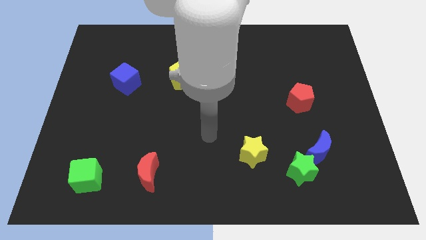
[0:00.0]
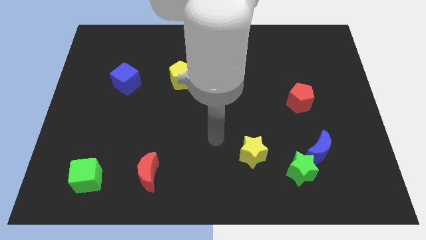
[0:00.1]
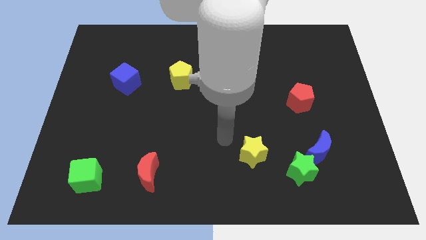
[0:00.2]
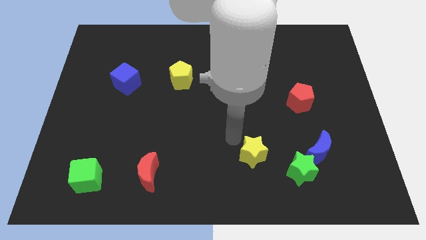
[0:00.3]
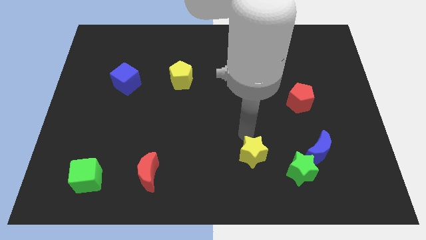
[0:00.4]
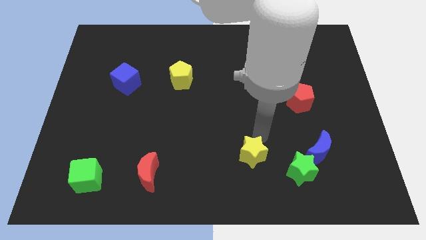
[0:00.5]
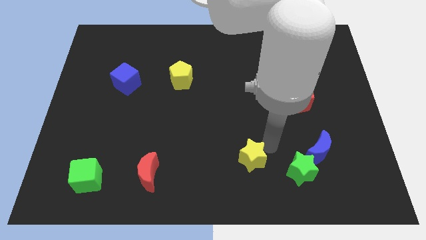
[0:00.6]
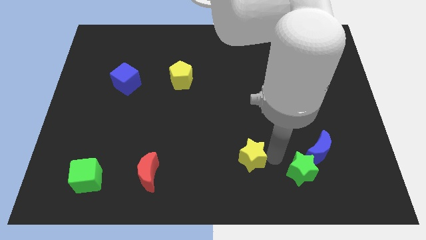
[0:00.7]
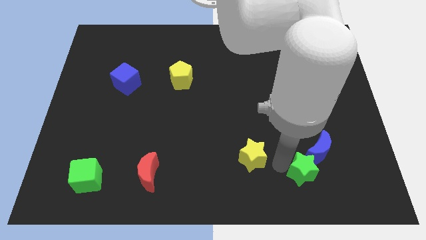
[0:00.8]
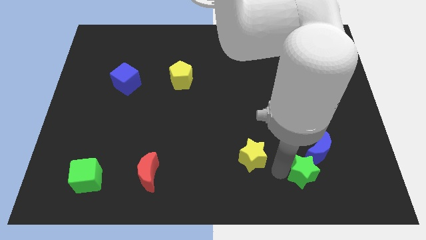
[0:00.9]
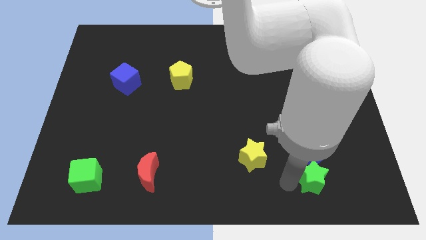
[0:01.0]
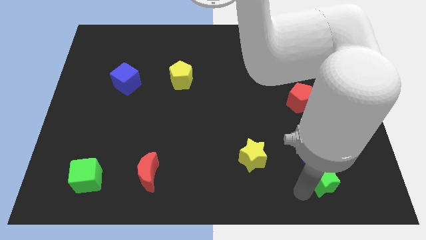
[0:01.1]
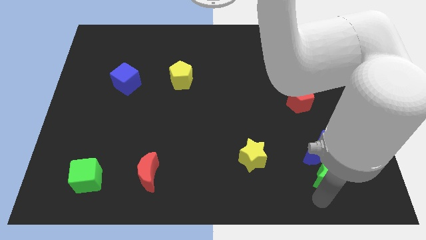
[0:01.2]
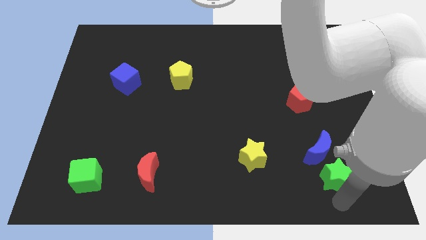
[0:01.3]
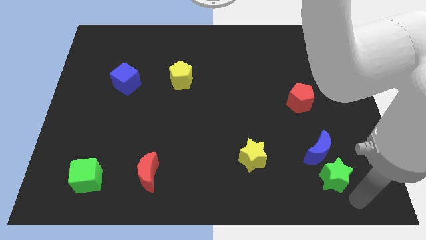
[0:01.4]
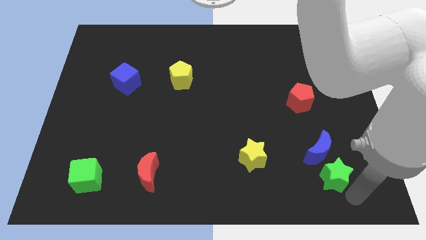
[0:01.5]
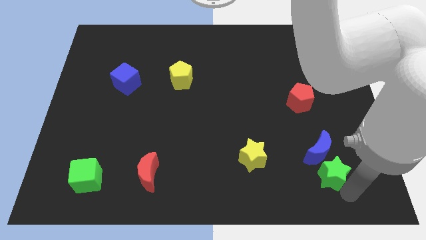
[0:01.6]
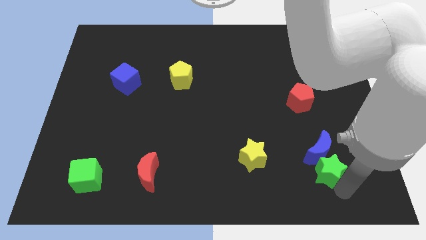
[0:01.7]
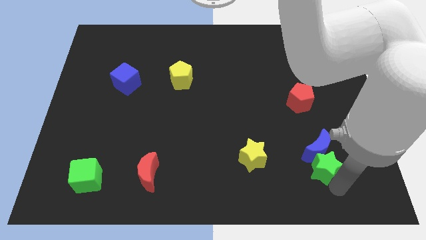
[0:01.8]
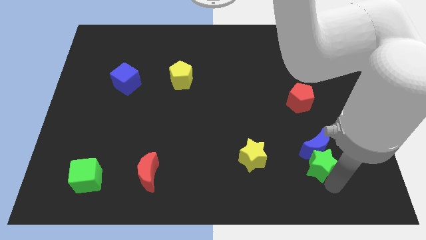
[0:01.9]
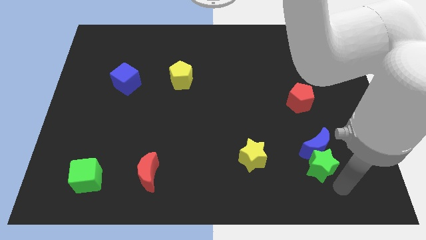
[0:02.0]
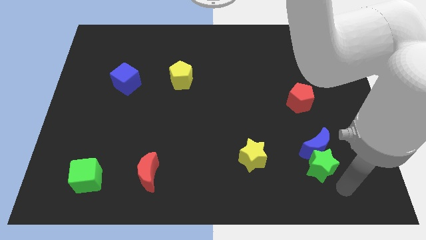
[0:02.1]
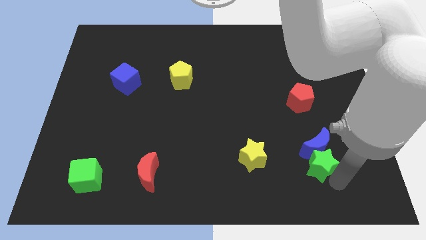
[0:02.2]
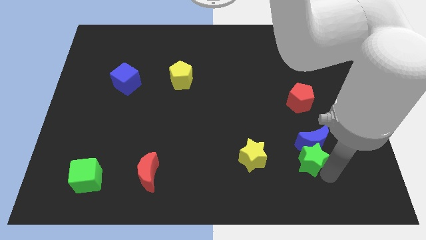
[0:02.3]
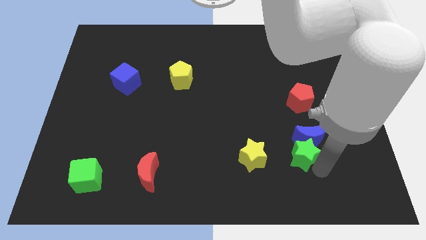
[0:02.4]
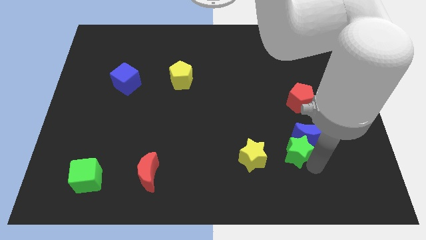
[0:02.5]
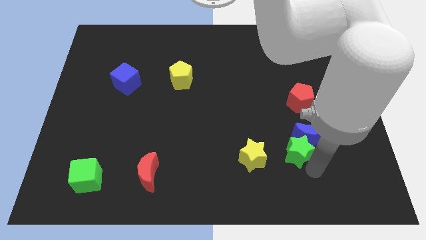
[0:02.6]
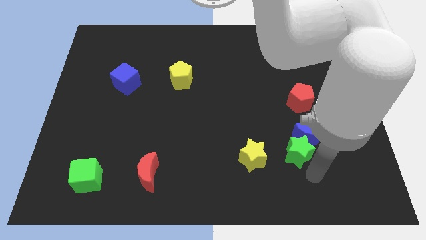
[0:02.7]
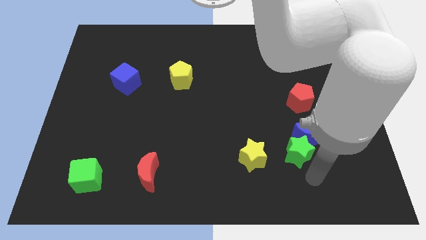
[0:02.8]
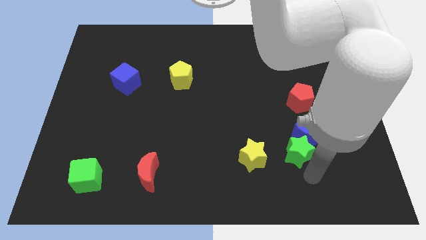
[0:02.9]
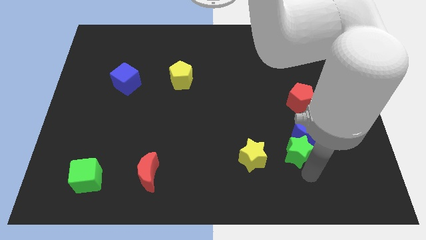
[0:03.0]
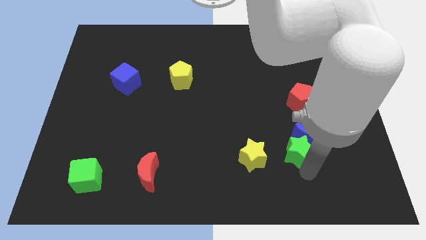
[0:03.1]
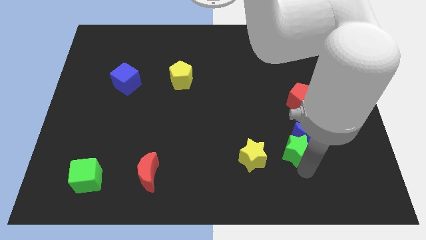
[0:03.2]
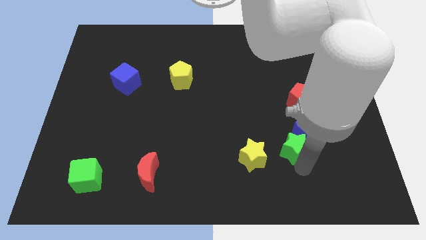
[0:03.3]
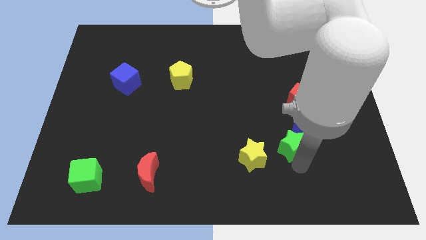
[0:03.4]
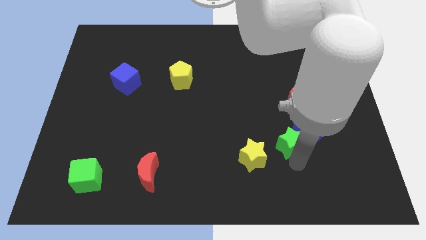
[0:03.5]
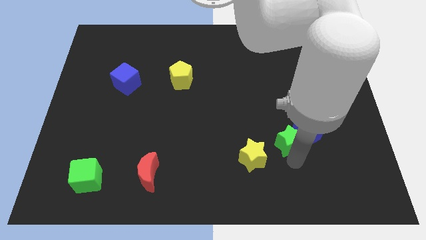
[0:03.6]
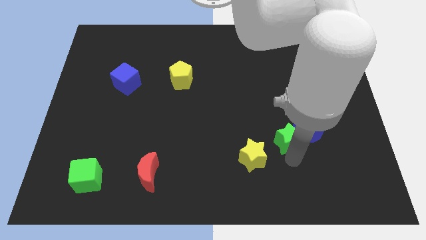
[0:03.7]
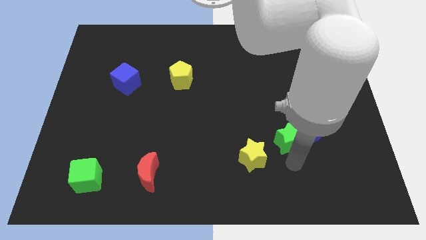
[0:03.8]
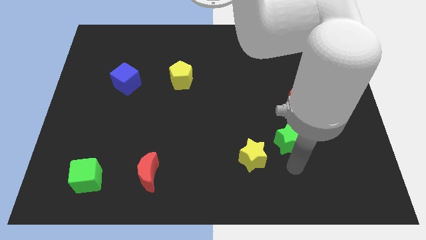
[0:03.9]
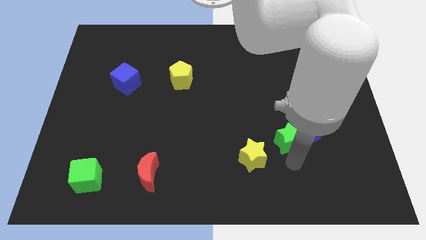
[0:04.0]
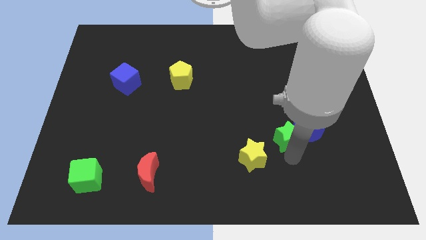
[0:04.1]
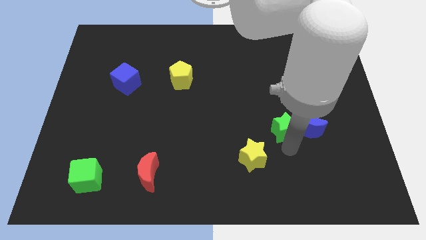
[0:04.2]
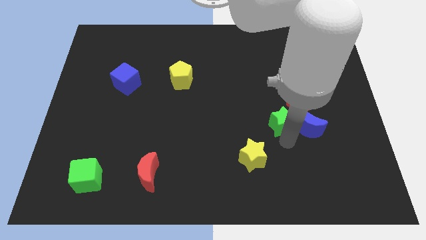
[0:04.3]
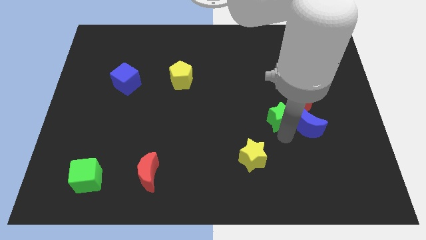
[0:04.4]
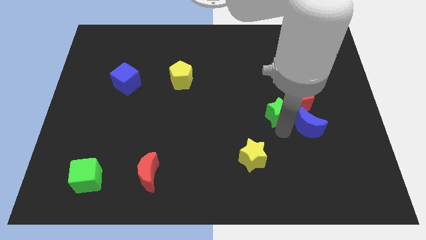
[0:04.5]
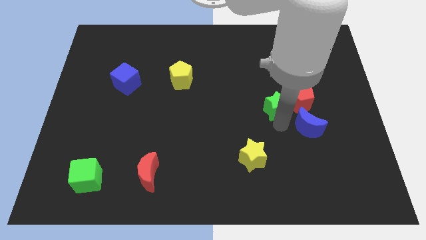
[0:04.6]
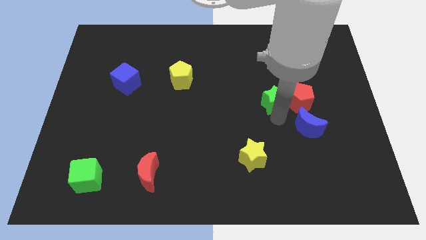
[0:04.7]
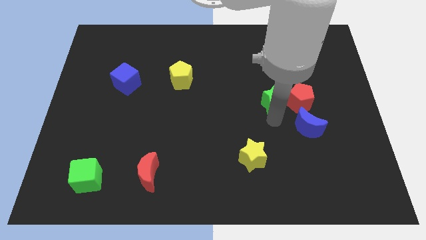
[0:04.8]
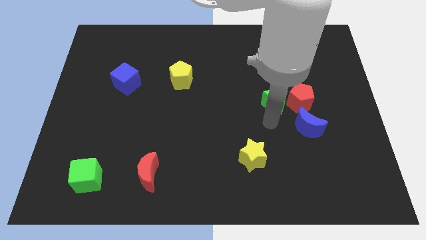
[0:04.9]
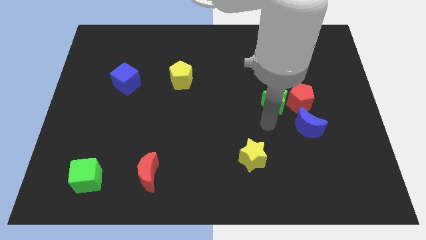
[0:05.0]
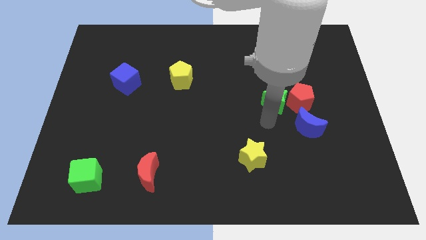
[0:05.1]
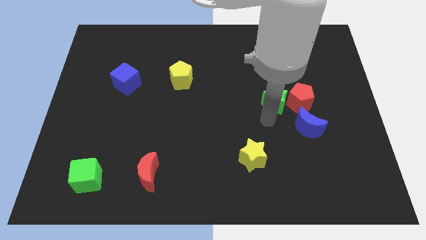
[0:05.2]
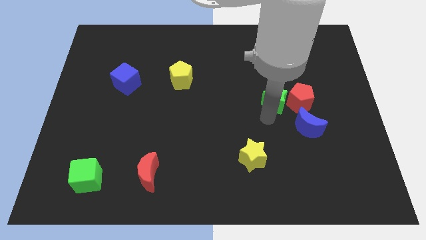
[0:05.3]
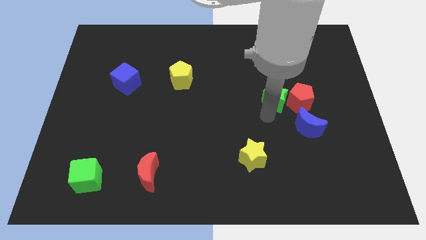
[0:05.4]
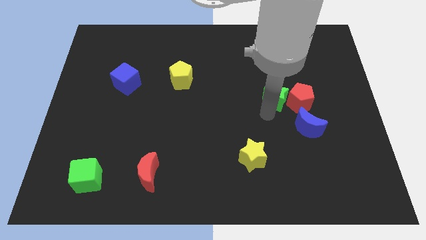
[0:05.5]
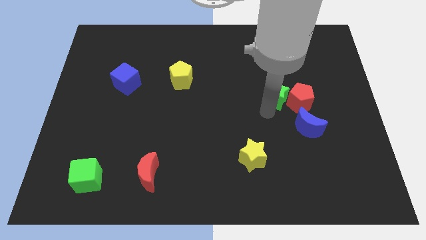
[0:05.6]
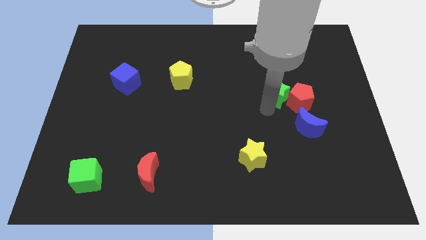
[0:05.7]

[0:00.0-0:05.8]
push the green star up

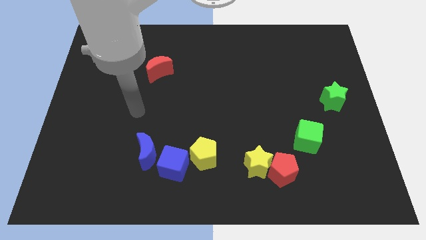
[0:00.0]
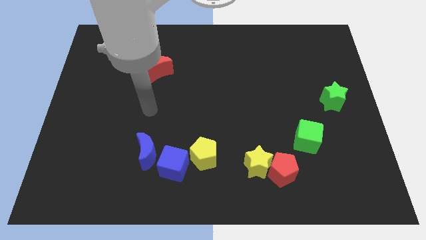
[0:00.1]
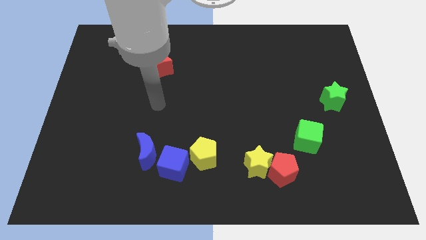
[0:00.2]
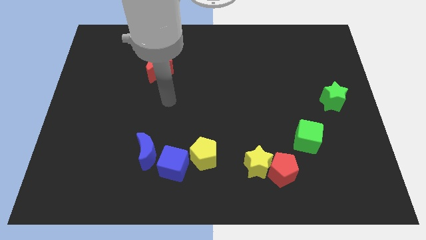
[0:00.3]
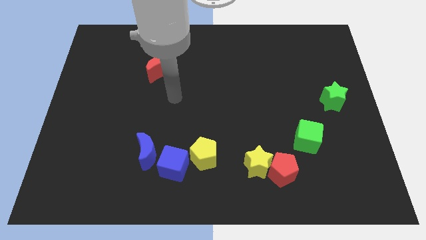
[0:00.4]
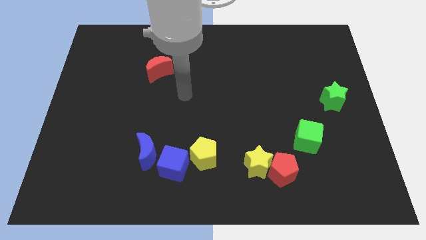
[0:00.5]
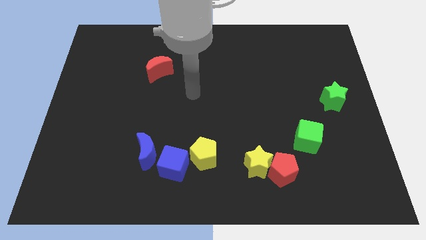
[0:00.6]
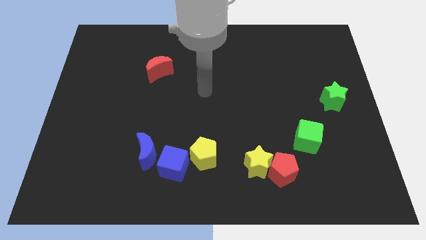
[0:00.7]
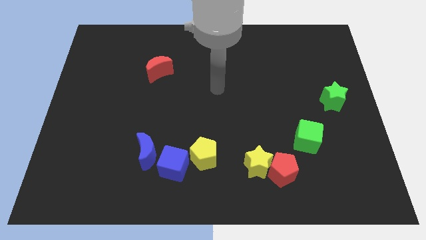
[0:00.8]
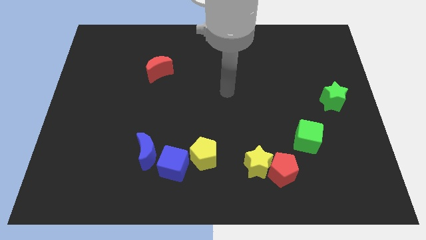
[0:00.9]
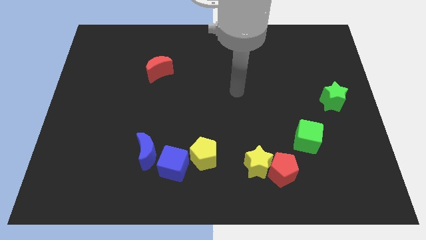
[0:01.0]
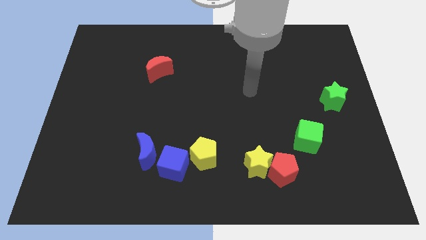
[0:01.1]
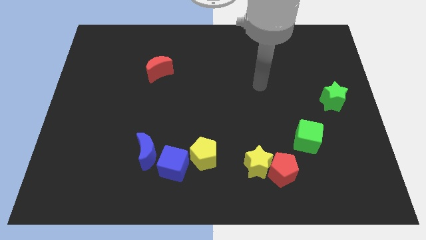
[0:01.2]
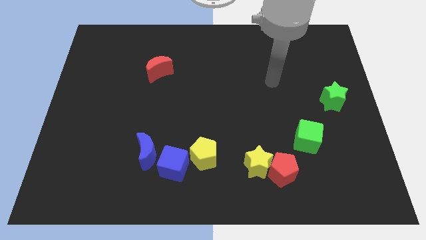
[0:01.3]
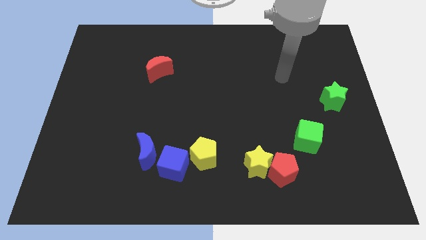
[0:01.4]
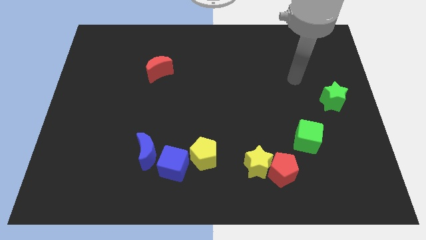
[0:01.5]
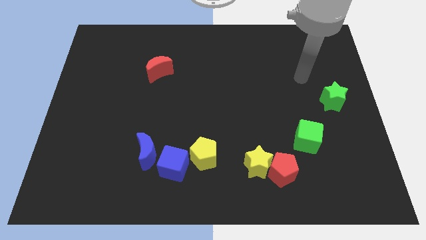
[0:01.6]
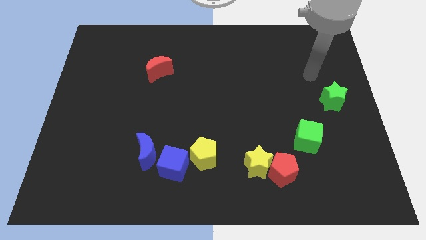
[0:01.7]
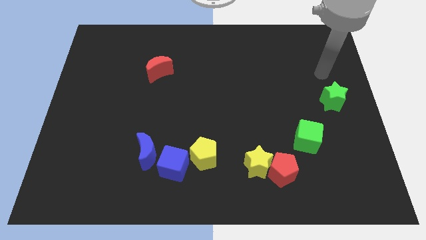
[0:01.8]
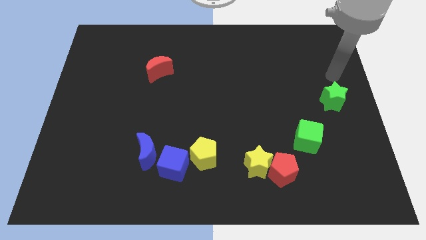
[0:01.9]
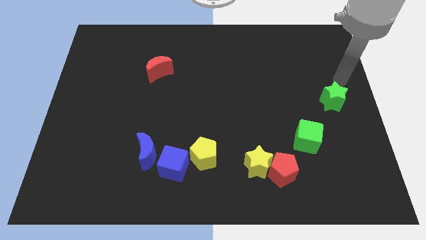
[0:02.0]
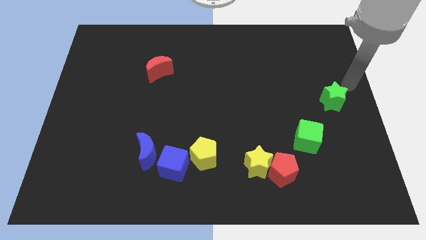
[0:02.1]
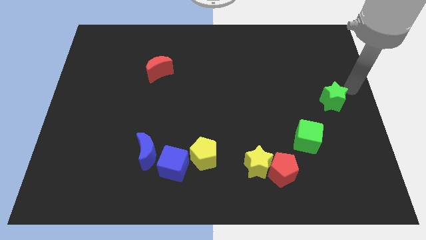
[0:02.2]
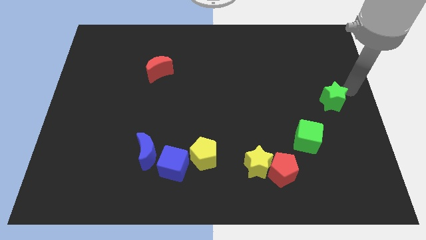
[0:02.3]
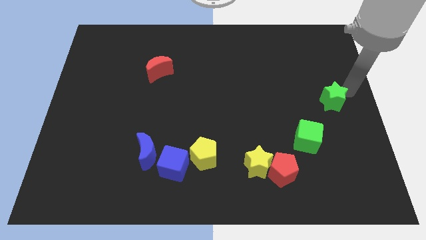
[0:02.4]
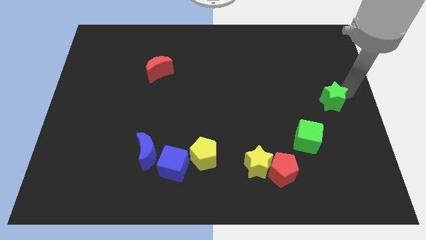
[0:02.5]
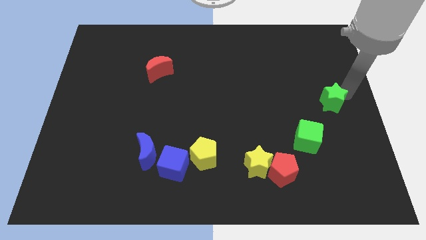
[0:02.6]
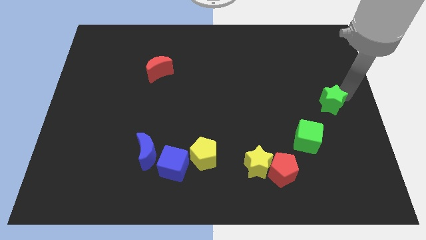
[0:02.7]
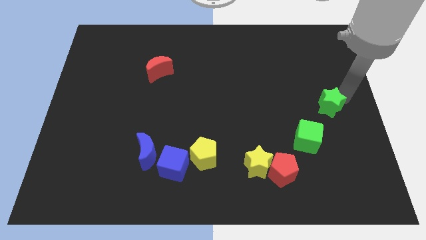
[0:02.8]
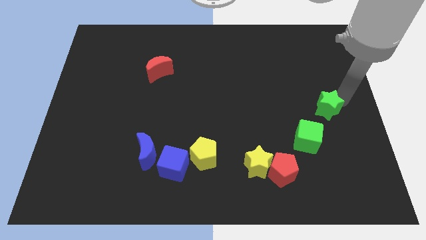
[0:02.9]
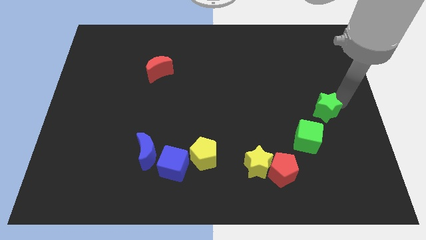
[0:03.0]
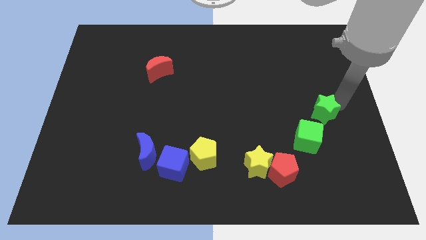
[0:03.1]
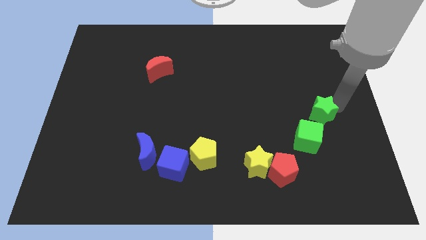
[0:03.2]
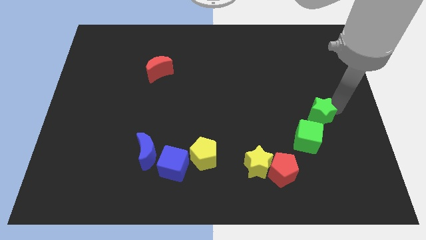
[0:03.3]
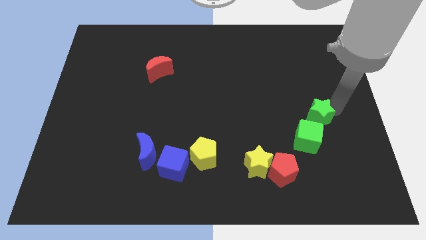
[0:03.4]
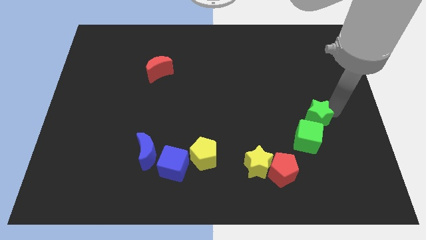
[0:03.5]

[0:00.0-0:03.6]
slide the green star slightly down and to the left
